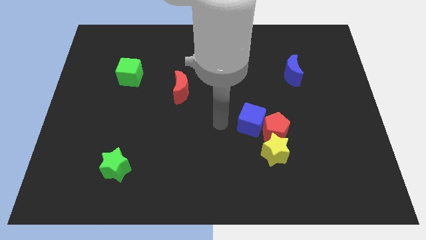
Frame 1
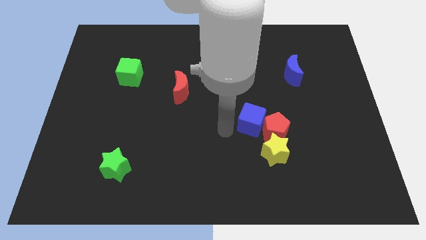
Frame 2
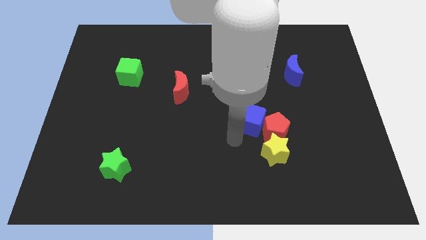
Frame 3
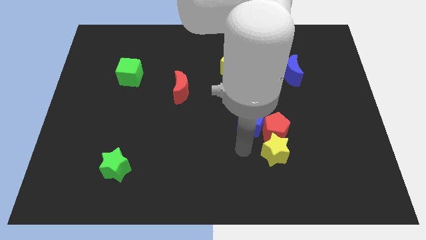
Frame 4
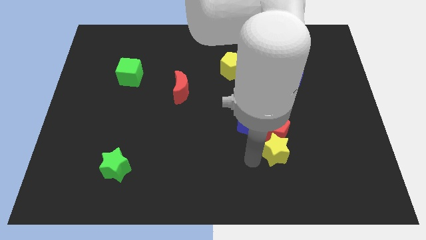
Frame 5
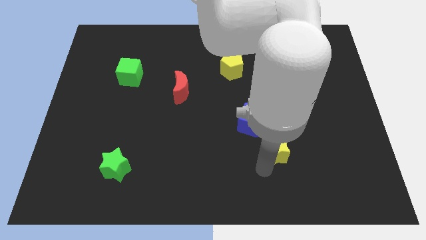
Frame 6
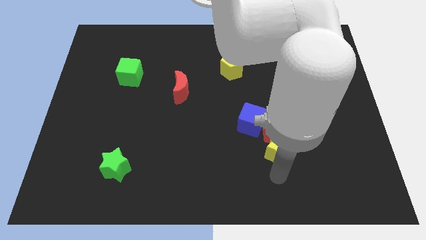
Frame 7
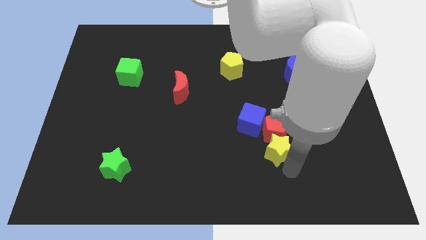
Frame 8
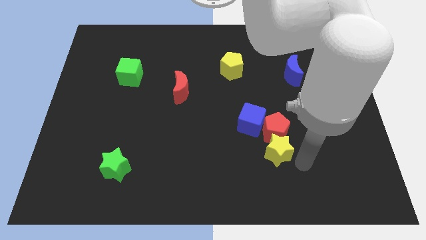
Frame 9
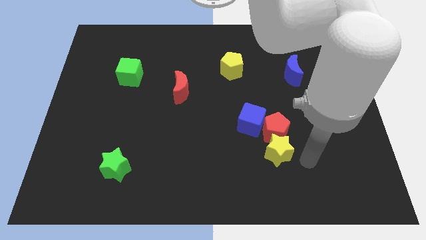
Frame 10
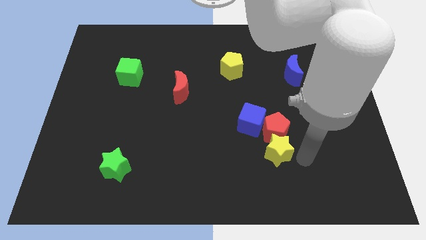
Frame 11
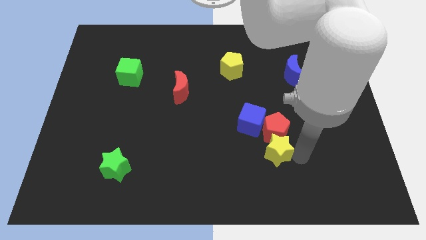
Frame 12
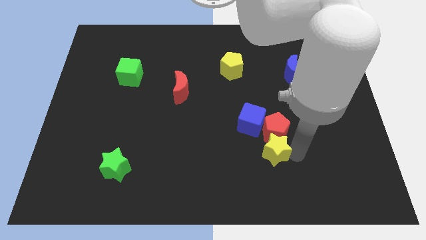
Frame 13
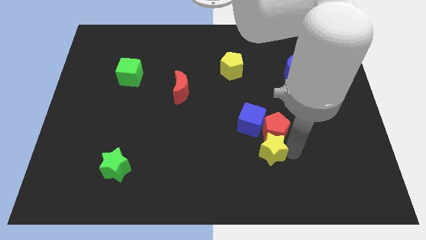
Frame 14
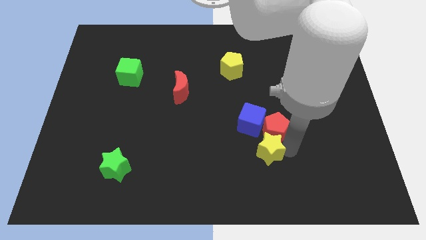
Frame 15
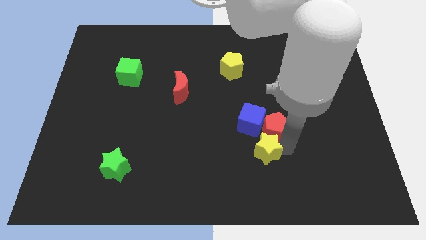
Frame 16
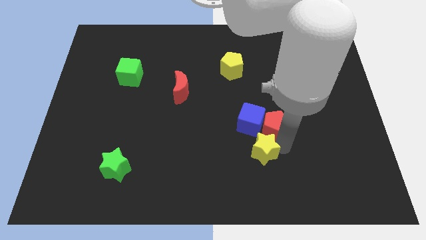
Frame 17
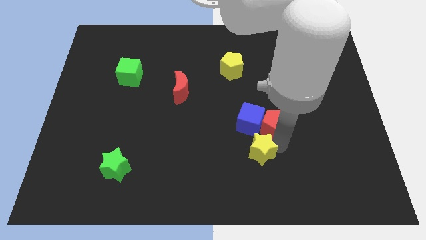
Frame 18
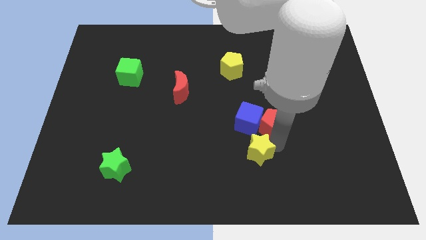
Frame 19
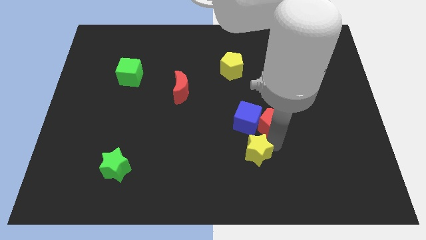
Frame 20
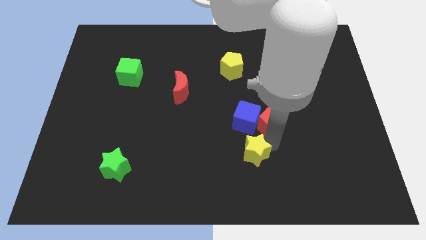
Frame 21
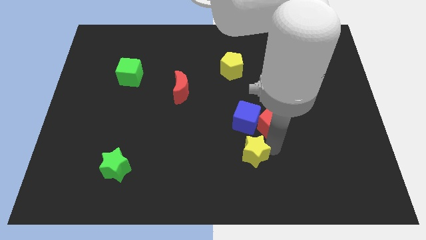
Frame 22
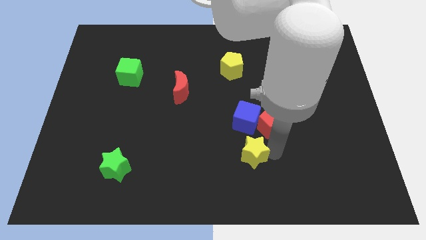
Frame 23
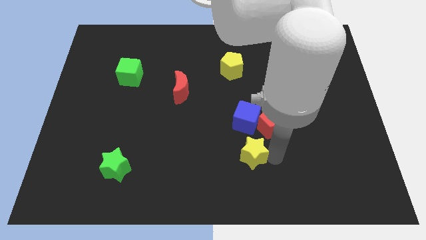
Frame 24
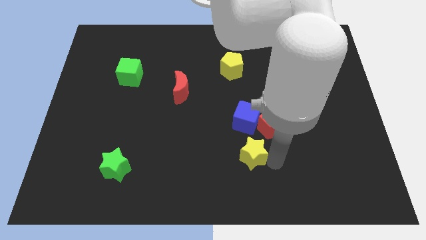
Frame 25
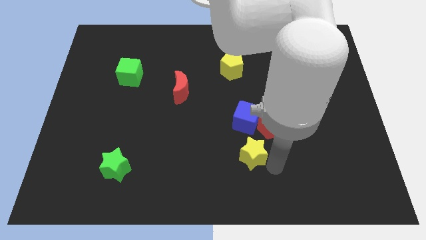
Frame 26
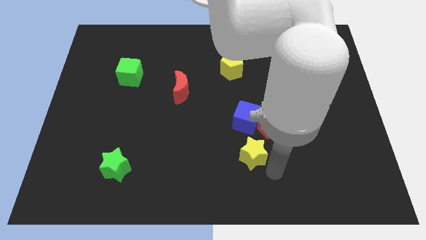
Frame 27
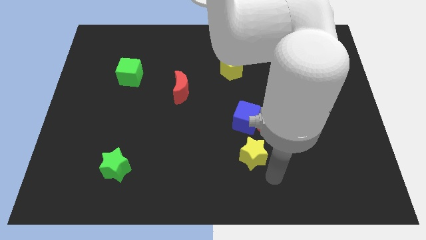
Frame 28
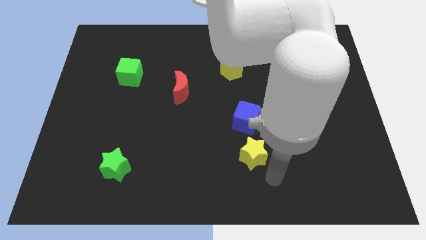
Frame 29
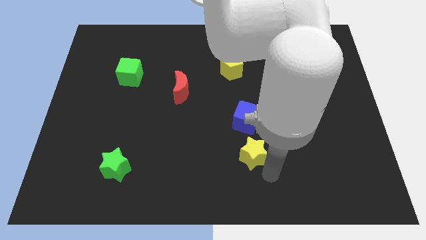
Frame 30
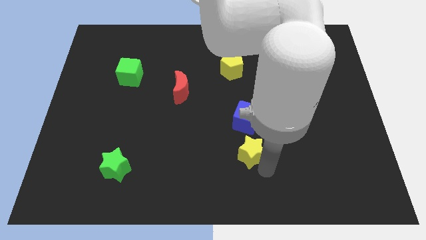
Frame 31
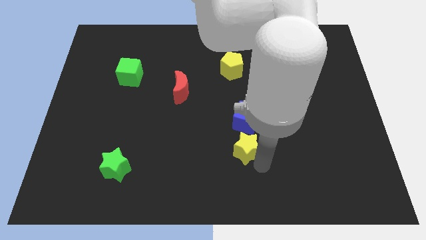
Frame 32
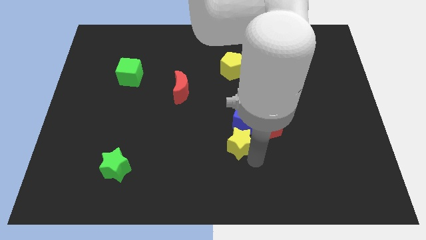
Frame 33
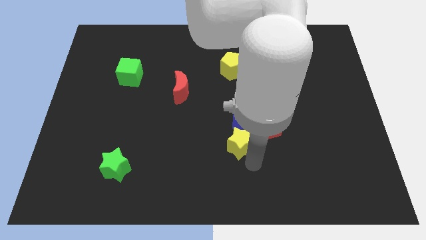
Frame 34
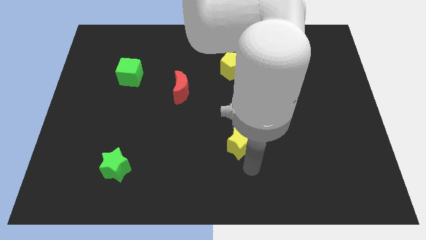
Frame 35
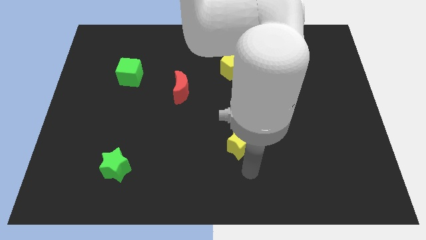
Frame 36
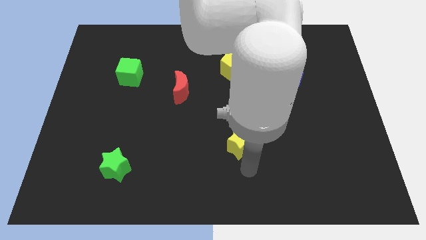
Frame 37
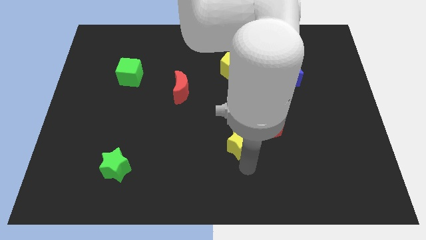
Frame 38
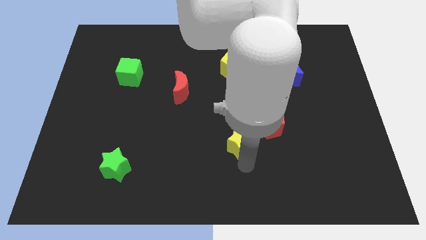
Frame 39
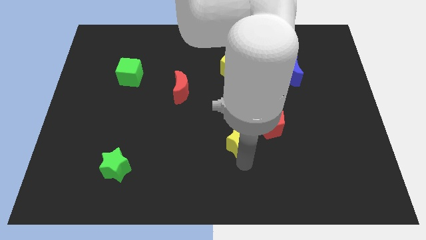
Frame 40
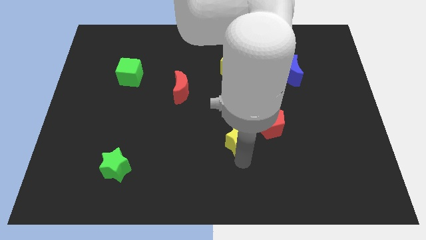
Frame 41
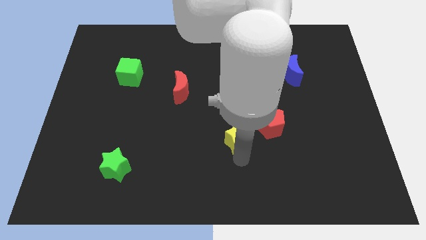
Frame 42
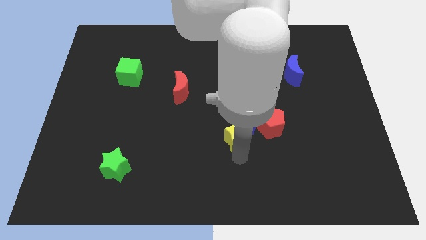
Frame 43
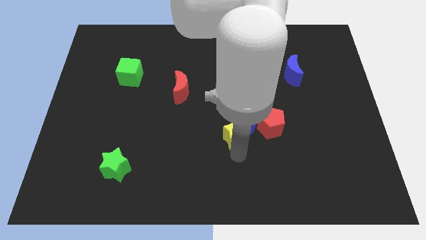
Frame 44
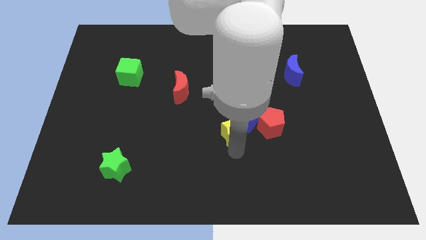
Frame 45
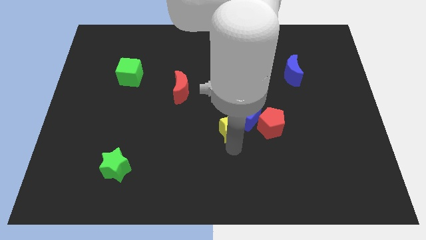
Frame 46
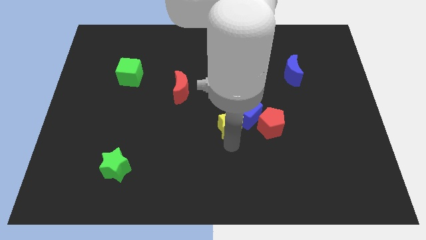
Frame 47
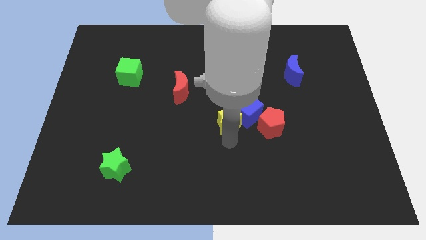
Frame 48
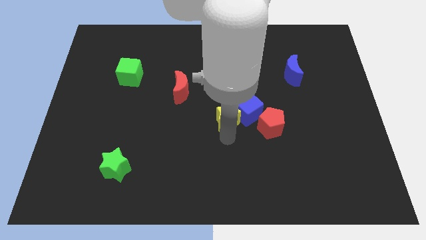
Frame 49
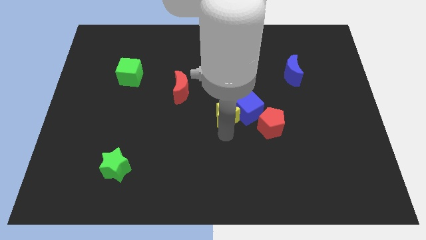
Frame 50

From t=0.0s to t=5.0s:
slide the yellow star to the top left side of the blue cube

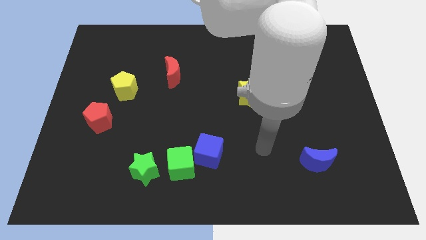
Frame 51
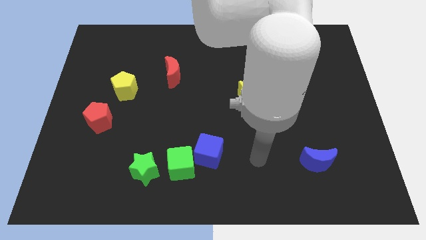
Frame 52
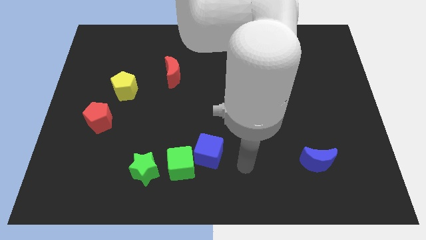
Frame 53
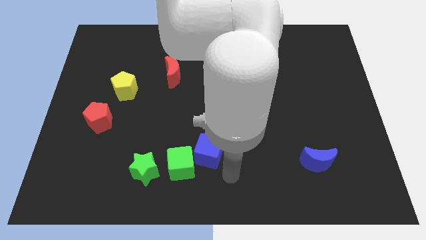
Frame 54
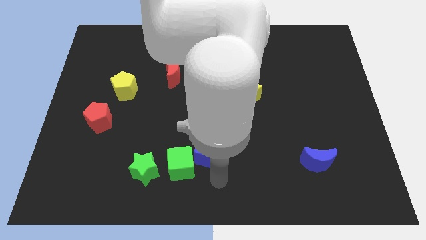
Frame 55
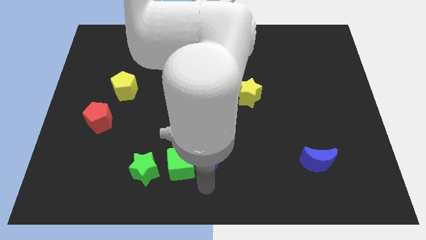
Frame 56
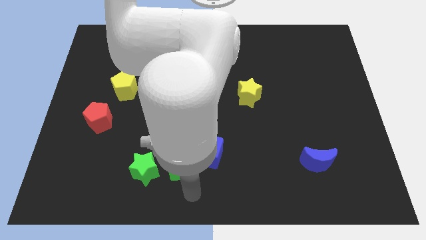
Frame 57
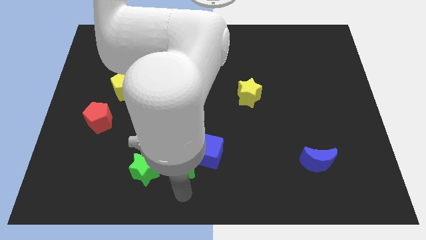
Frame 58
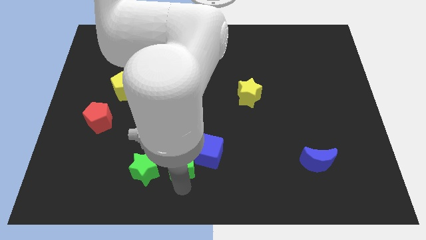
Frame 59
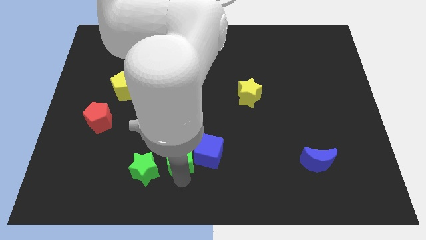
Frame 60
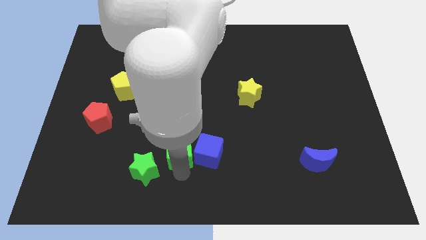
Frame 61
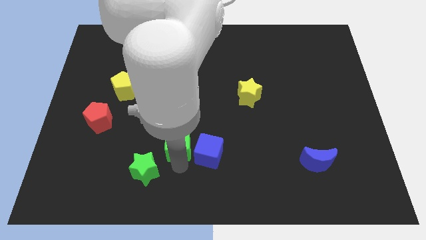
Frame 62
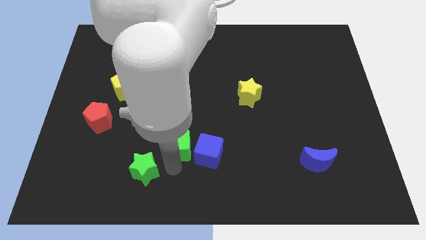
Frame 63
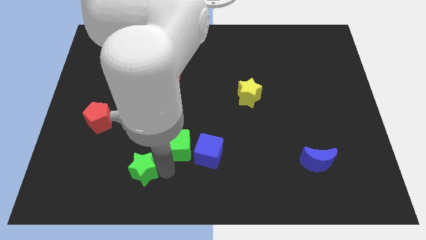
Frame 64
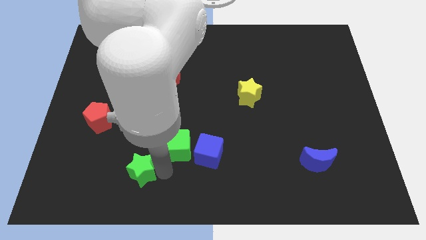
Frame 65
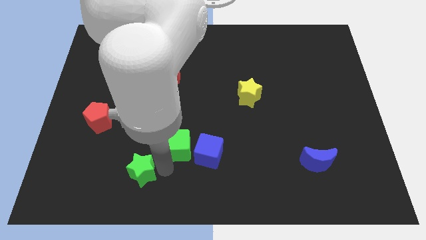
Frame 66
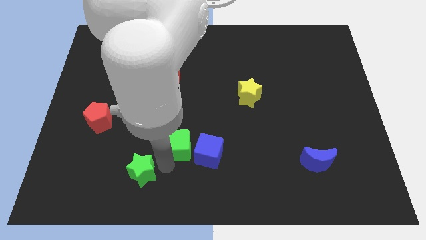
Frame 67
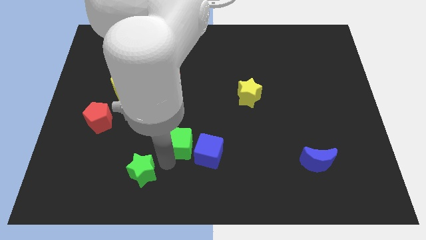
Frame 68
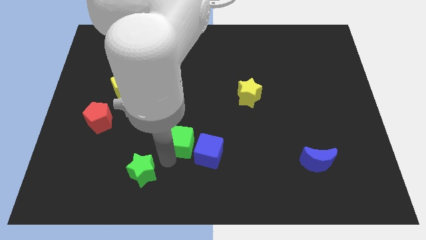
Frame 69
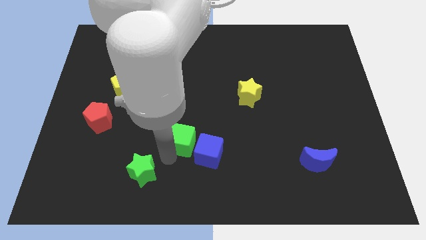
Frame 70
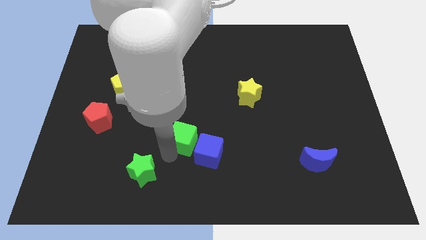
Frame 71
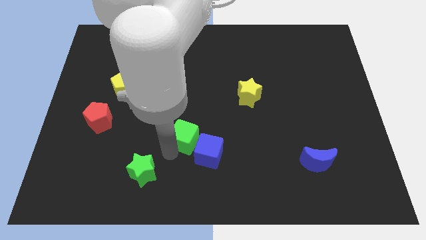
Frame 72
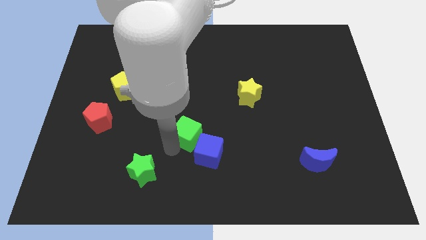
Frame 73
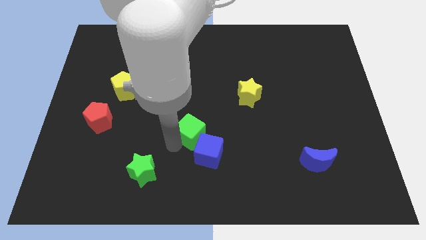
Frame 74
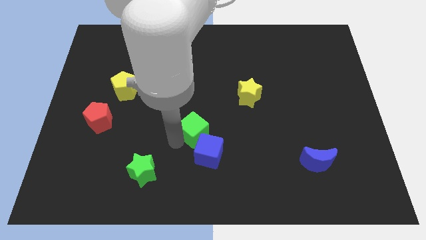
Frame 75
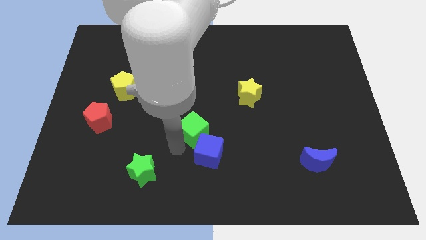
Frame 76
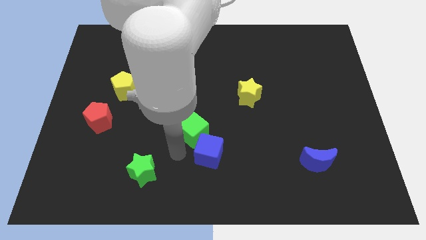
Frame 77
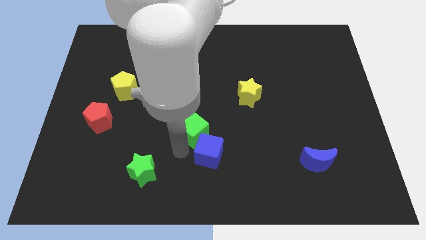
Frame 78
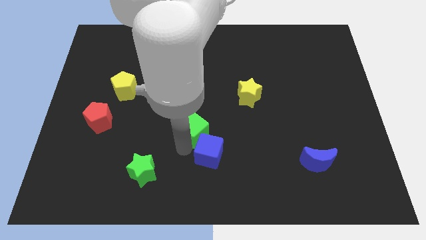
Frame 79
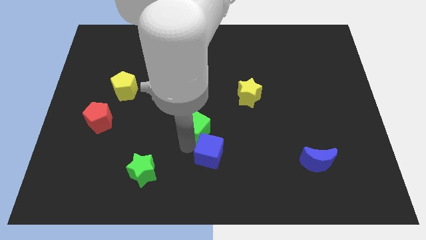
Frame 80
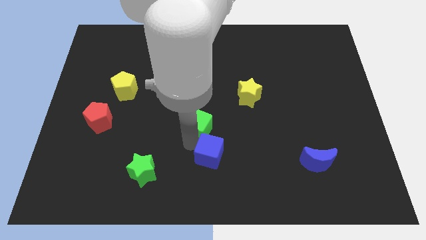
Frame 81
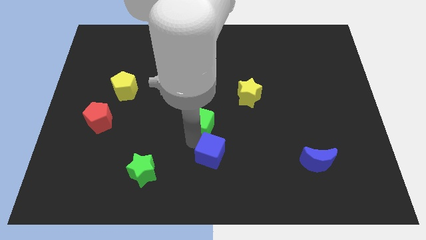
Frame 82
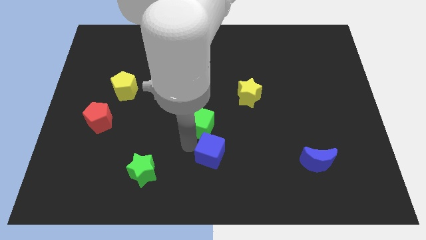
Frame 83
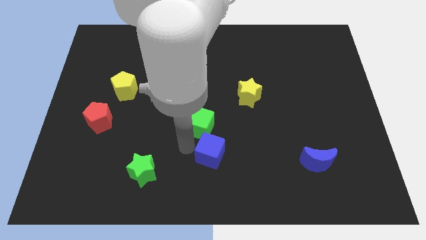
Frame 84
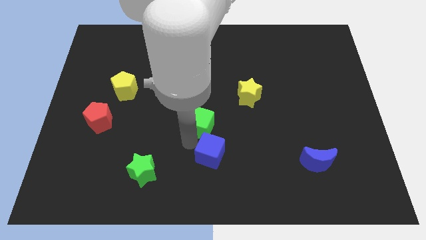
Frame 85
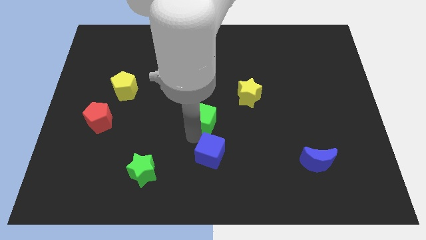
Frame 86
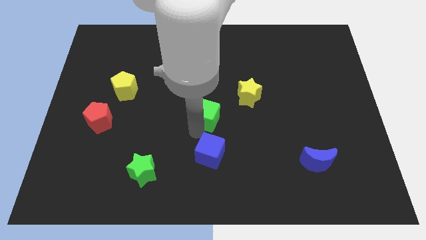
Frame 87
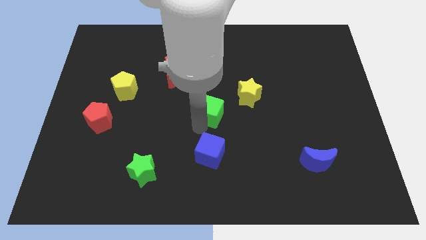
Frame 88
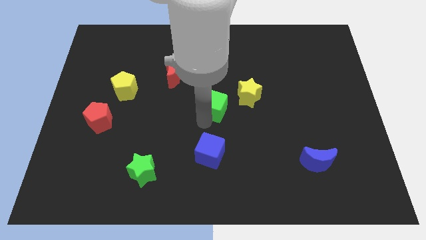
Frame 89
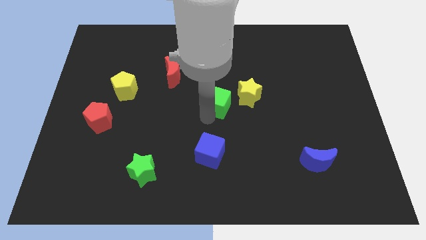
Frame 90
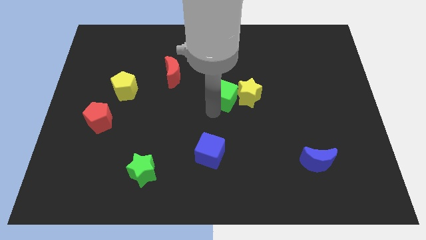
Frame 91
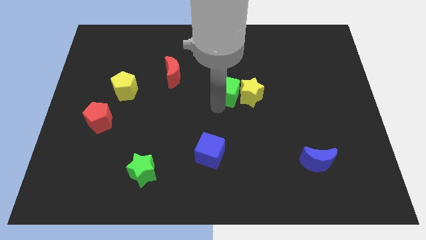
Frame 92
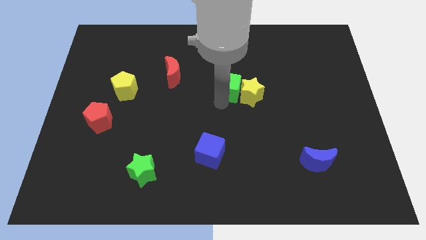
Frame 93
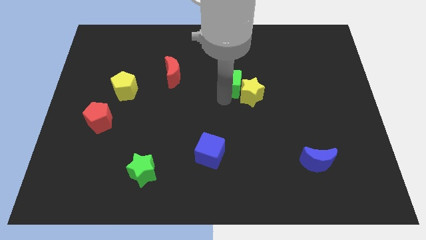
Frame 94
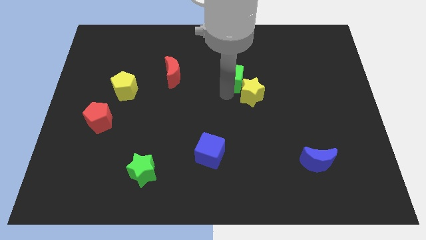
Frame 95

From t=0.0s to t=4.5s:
move the green cube to the top side of the yellow star
